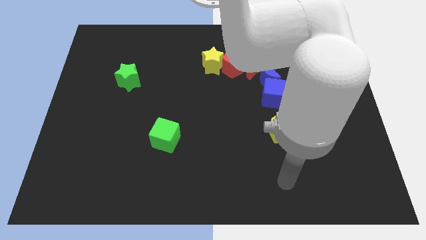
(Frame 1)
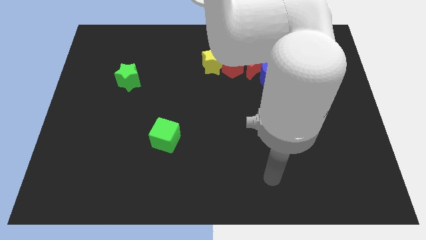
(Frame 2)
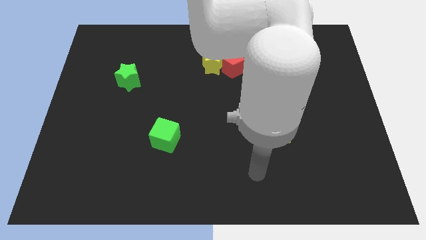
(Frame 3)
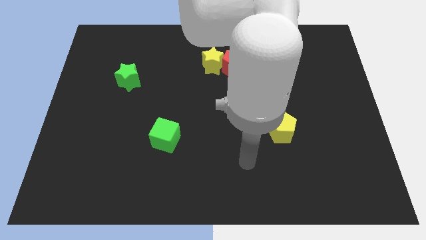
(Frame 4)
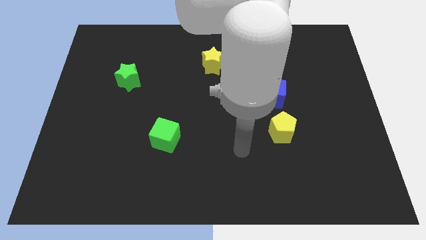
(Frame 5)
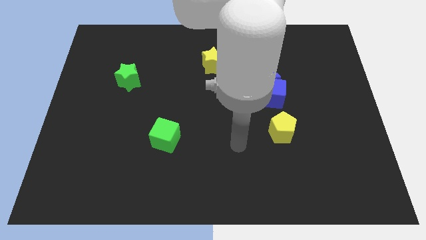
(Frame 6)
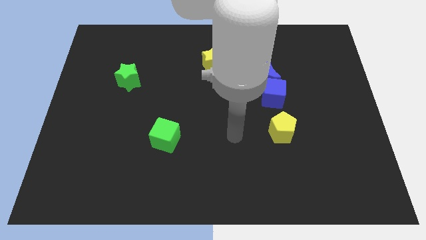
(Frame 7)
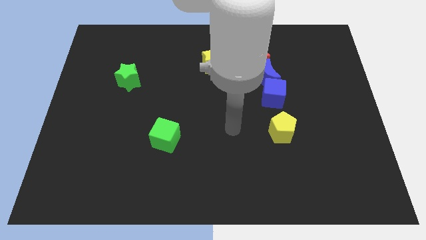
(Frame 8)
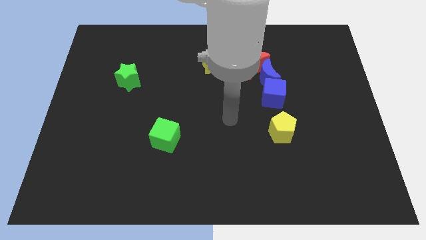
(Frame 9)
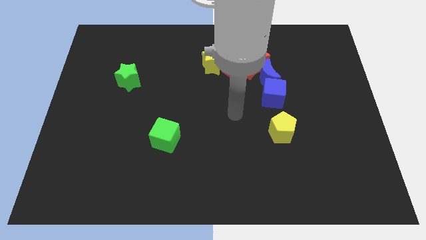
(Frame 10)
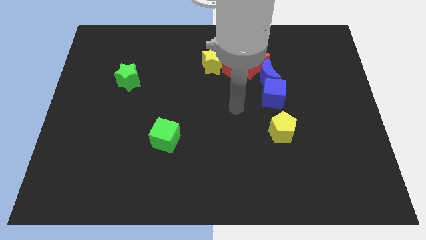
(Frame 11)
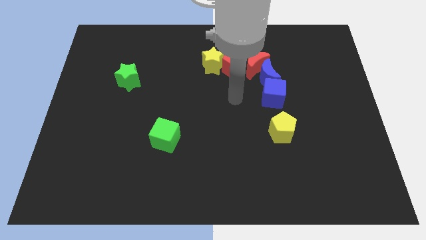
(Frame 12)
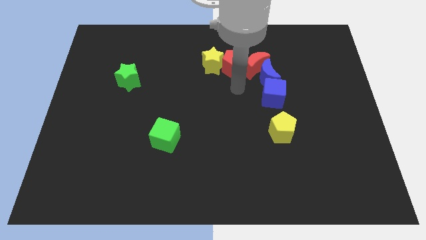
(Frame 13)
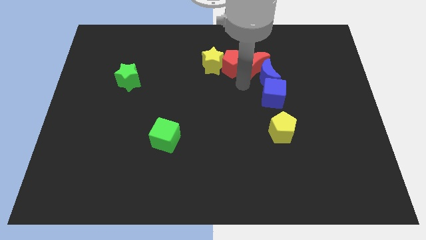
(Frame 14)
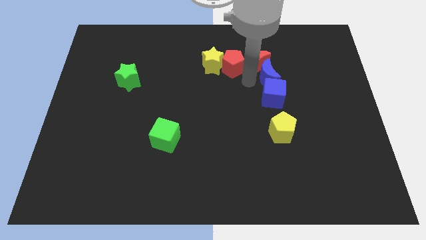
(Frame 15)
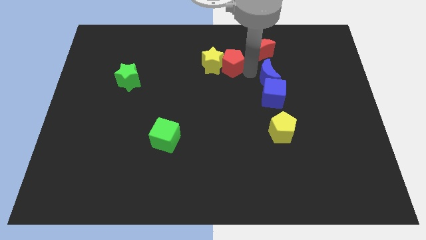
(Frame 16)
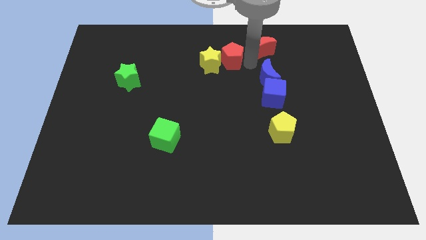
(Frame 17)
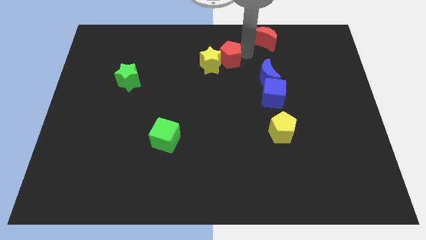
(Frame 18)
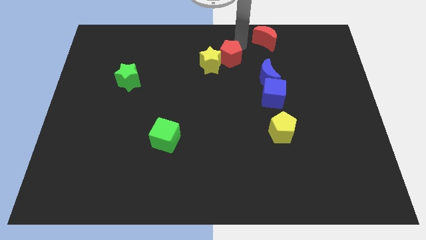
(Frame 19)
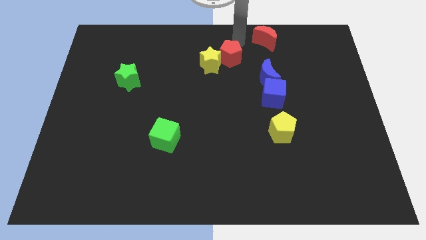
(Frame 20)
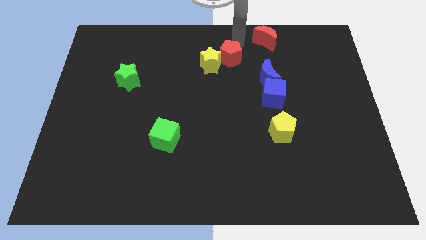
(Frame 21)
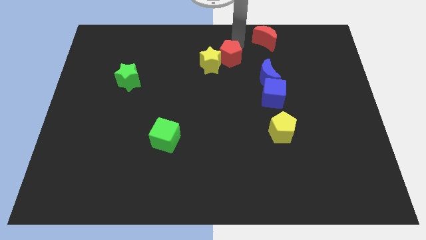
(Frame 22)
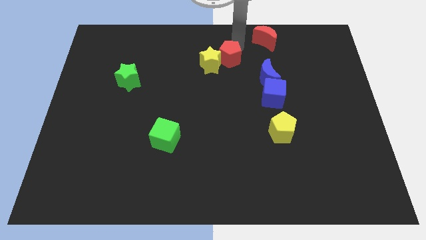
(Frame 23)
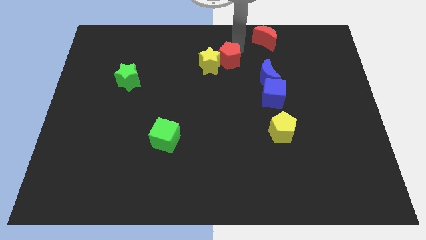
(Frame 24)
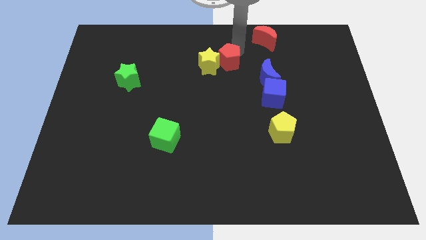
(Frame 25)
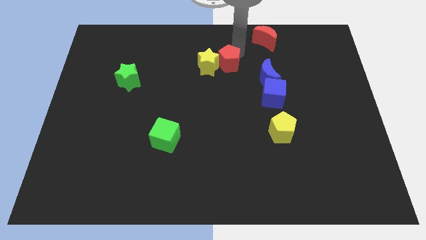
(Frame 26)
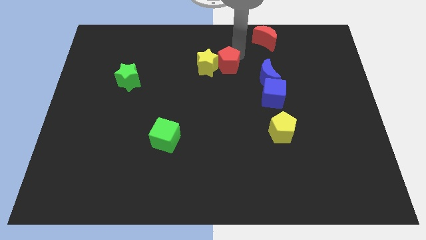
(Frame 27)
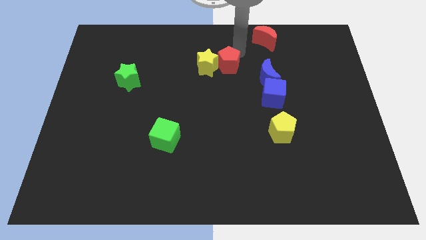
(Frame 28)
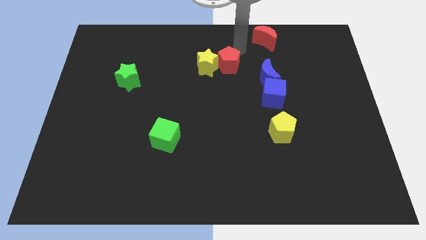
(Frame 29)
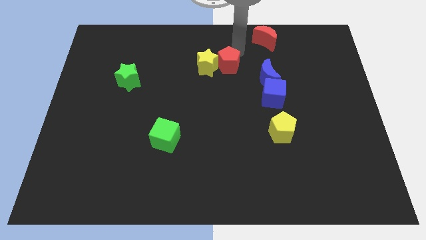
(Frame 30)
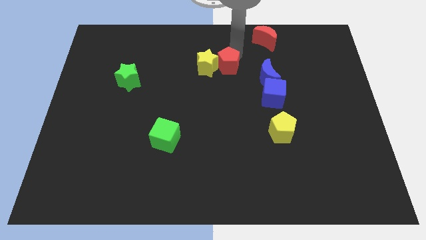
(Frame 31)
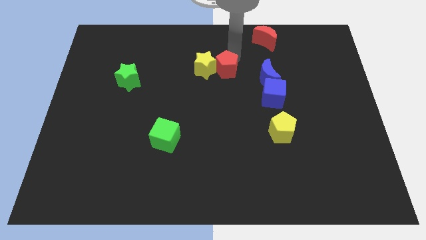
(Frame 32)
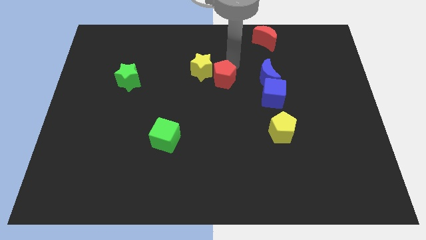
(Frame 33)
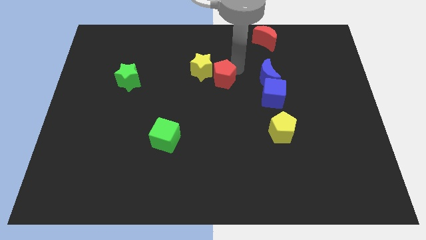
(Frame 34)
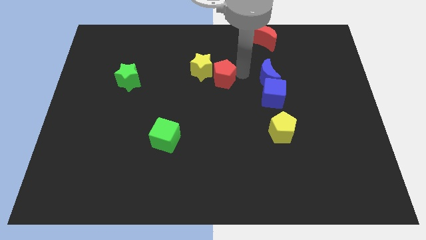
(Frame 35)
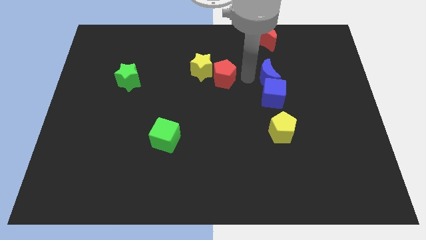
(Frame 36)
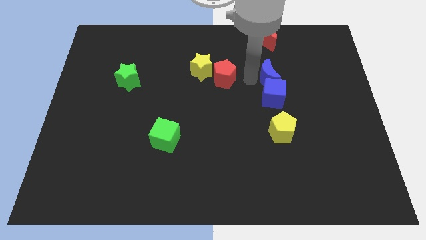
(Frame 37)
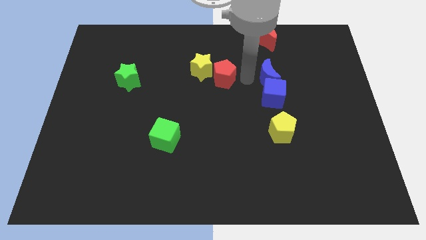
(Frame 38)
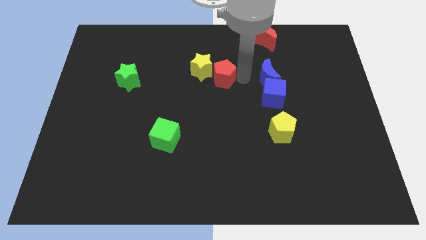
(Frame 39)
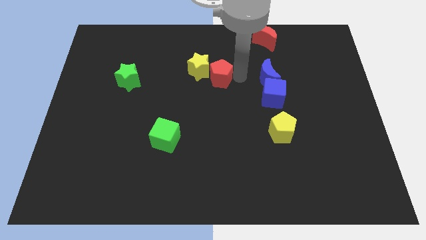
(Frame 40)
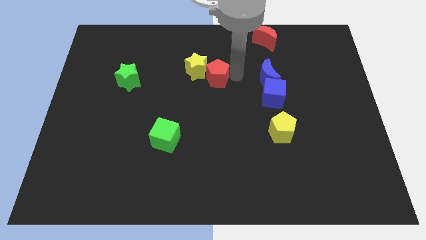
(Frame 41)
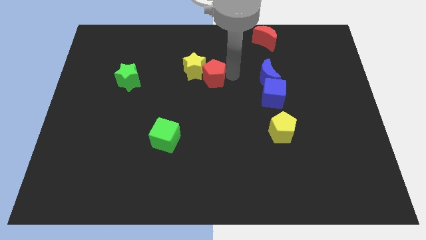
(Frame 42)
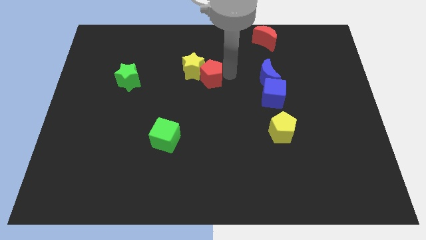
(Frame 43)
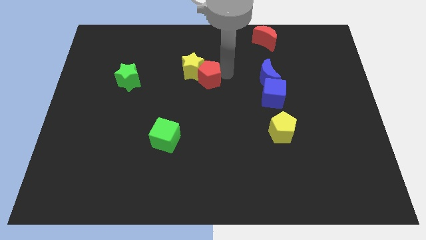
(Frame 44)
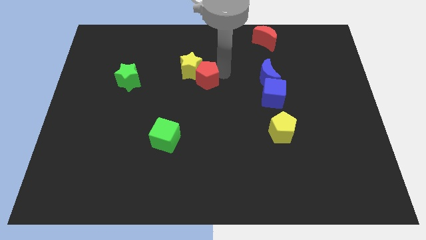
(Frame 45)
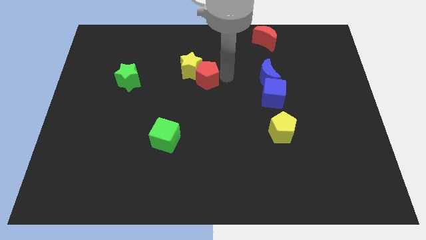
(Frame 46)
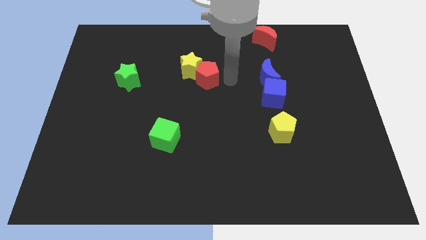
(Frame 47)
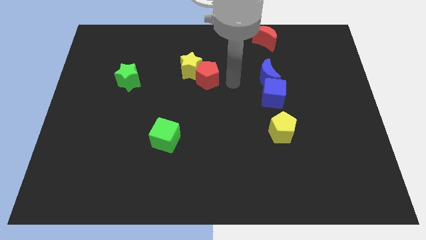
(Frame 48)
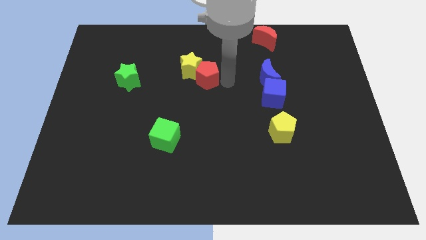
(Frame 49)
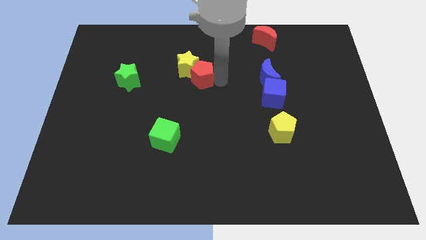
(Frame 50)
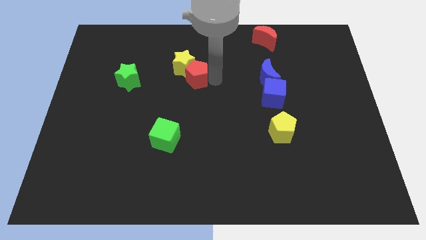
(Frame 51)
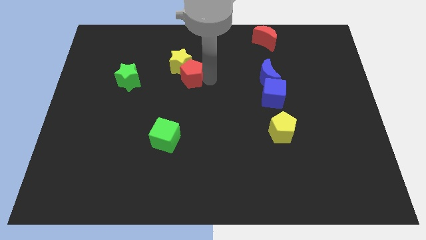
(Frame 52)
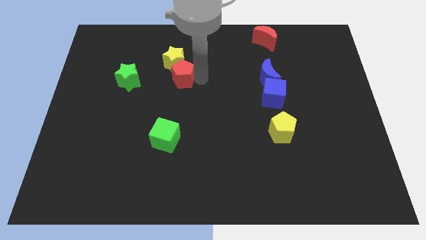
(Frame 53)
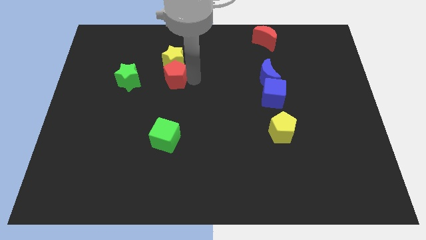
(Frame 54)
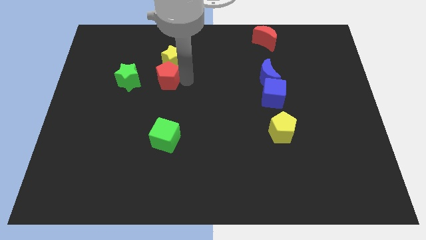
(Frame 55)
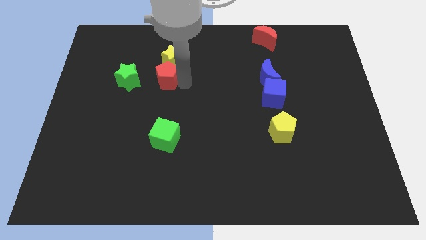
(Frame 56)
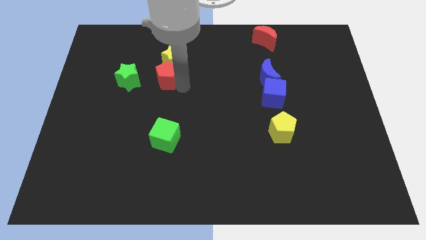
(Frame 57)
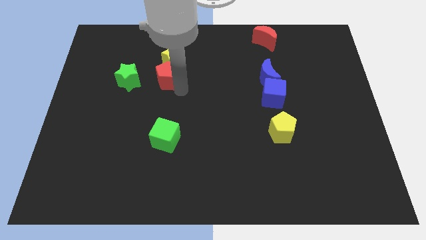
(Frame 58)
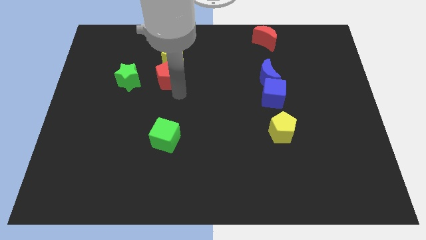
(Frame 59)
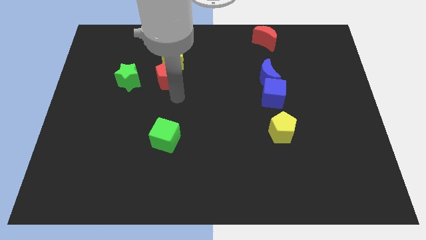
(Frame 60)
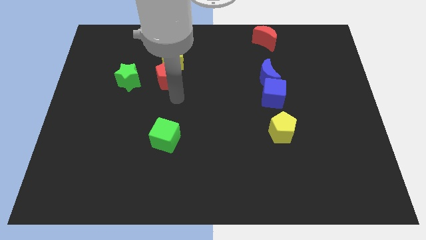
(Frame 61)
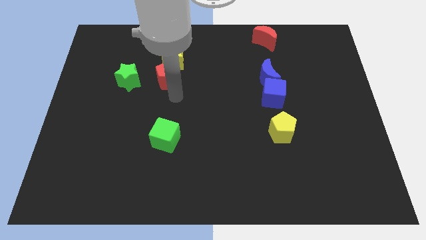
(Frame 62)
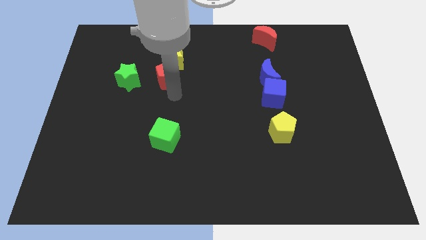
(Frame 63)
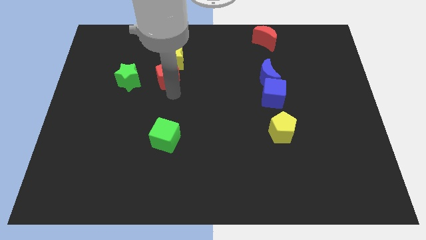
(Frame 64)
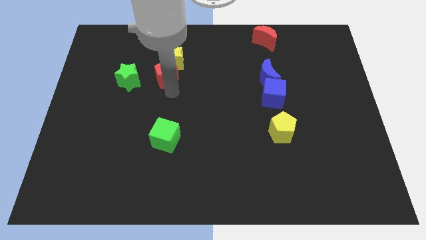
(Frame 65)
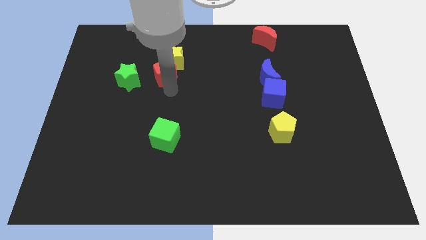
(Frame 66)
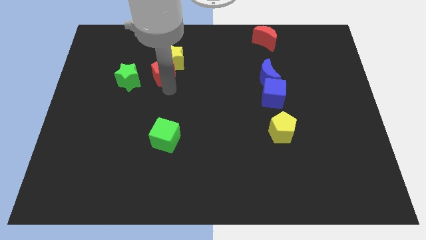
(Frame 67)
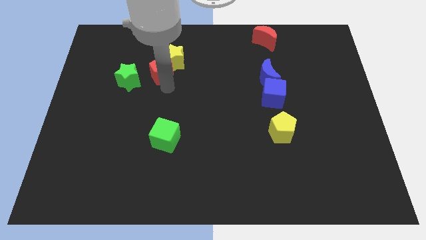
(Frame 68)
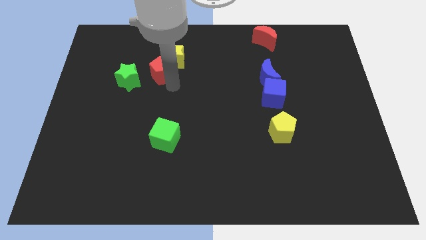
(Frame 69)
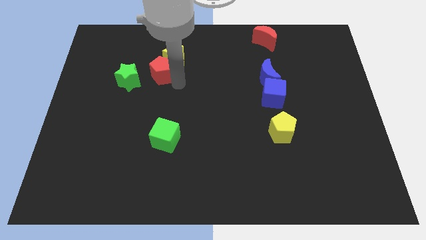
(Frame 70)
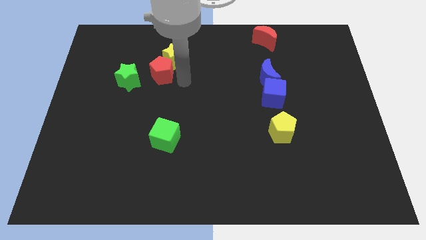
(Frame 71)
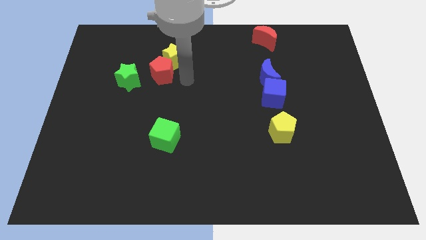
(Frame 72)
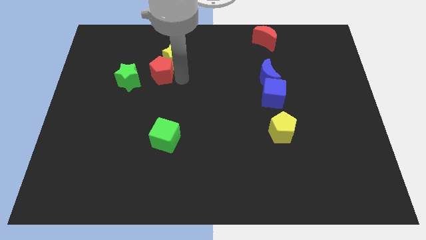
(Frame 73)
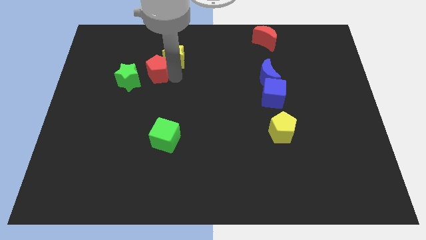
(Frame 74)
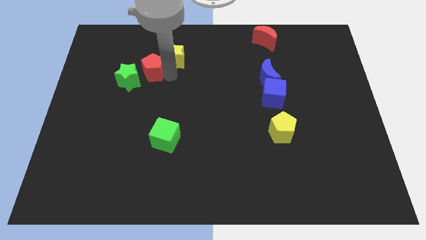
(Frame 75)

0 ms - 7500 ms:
slide the red pentagon left

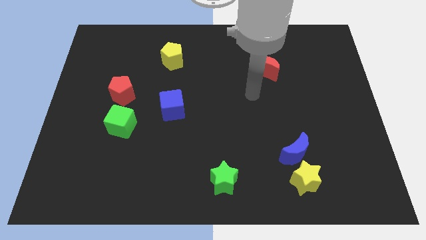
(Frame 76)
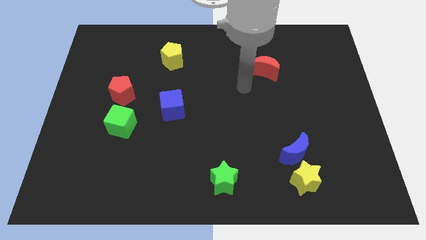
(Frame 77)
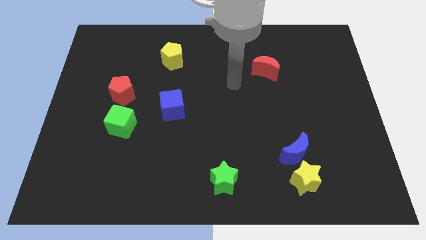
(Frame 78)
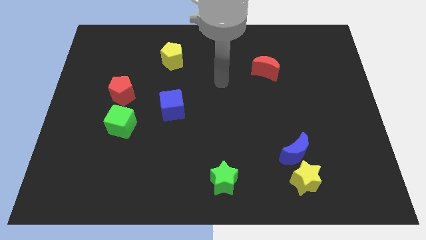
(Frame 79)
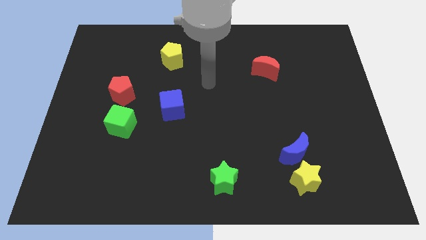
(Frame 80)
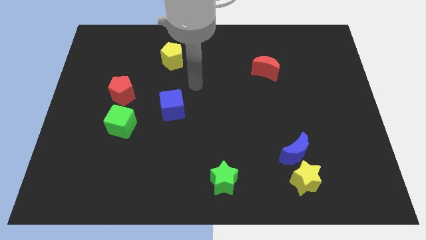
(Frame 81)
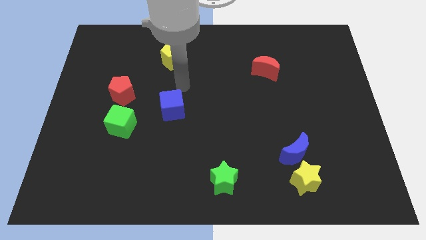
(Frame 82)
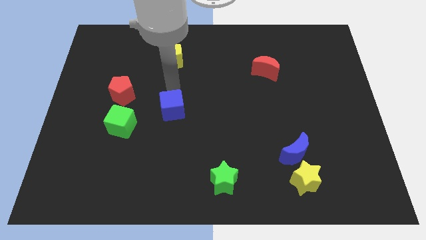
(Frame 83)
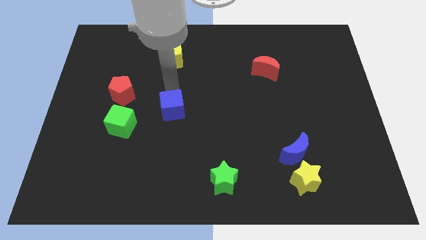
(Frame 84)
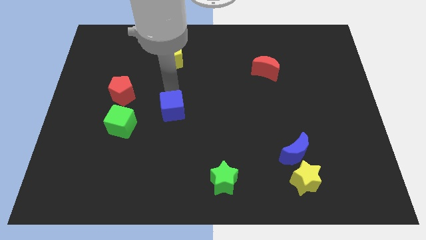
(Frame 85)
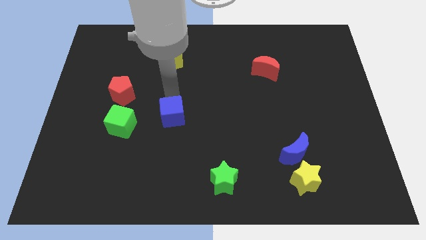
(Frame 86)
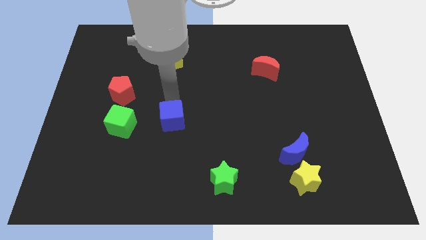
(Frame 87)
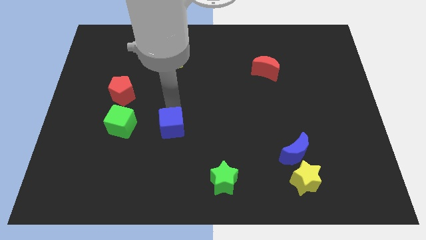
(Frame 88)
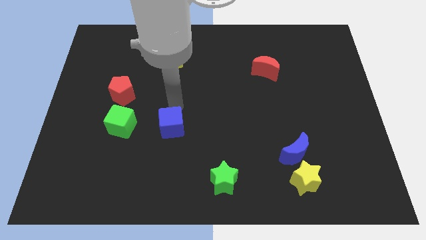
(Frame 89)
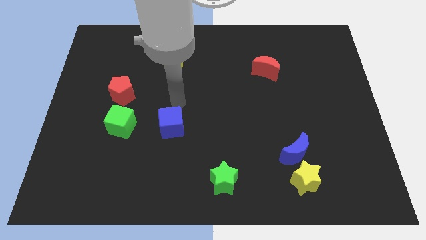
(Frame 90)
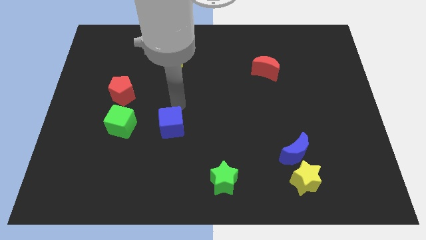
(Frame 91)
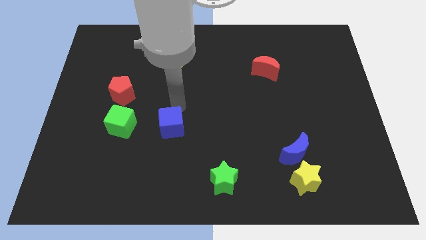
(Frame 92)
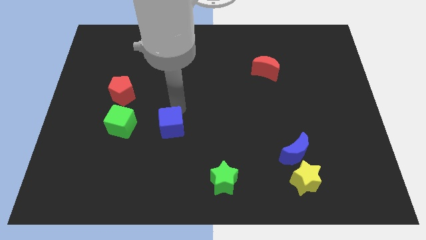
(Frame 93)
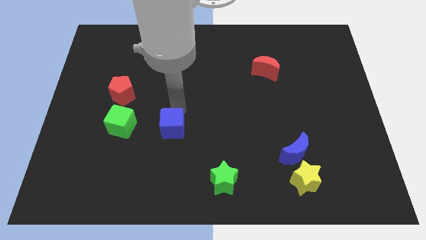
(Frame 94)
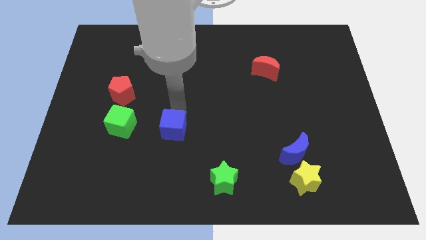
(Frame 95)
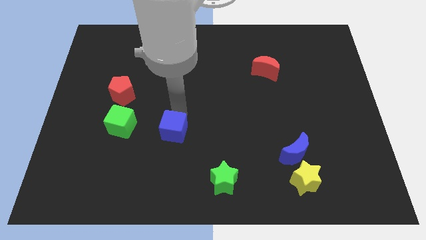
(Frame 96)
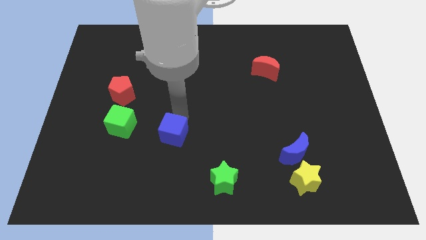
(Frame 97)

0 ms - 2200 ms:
slightly push the blue cube down
